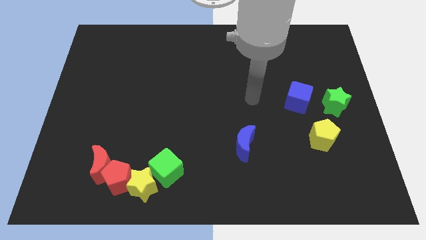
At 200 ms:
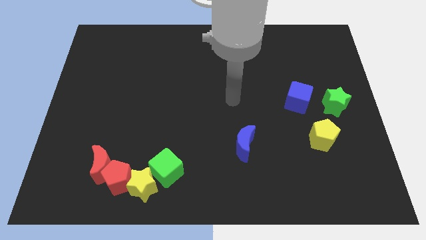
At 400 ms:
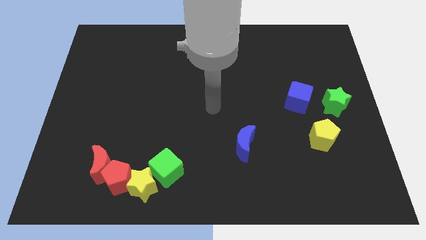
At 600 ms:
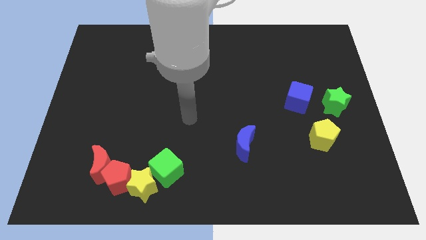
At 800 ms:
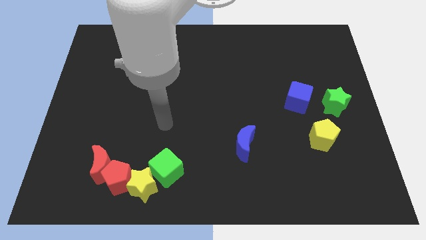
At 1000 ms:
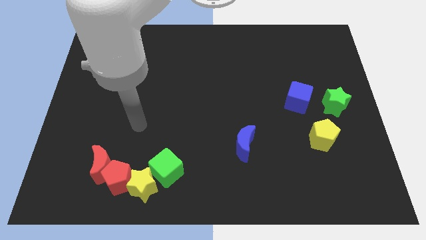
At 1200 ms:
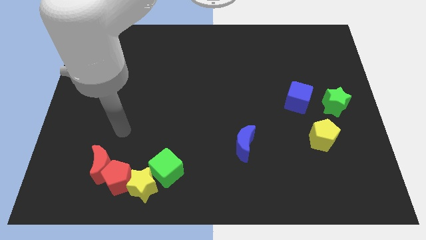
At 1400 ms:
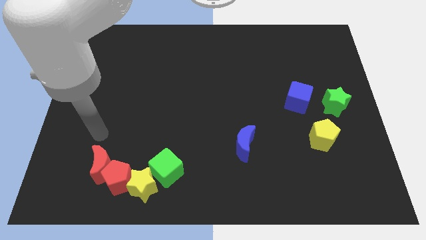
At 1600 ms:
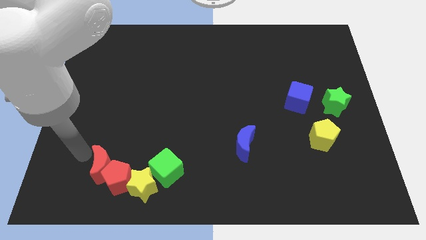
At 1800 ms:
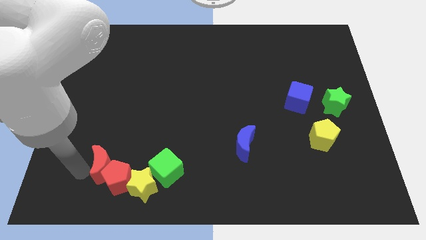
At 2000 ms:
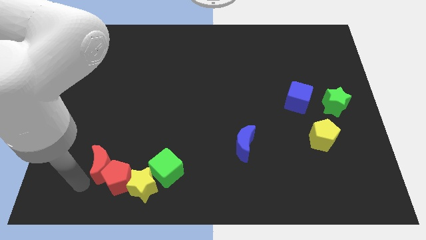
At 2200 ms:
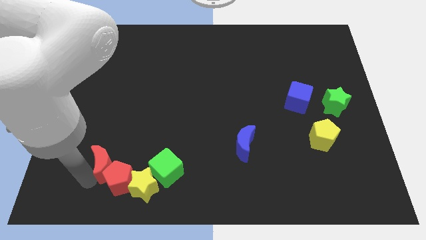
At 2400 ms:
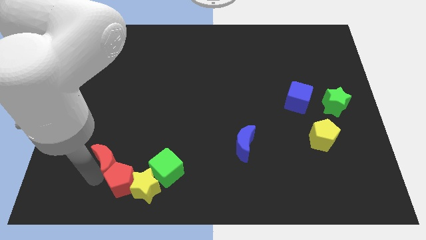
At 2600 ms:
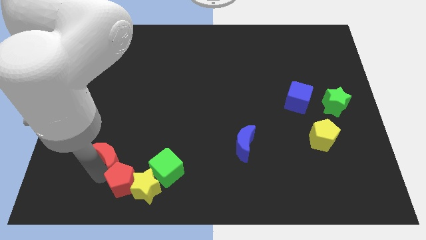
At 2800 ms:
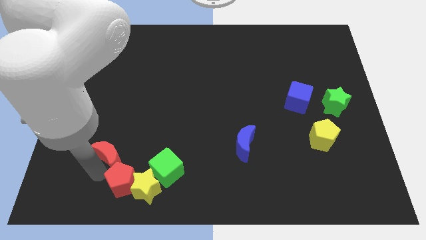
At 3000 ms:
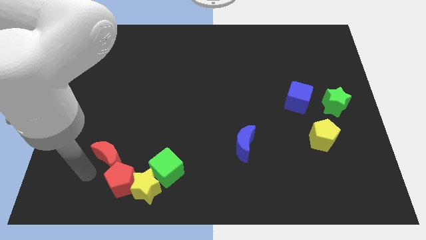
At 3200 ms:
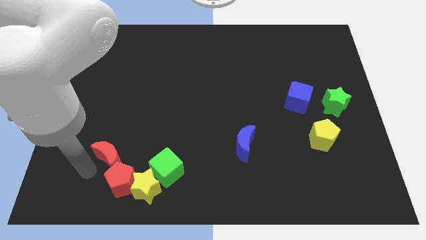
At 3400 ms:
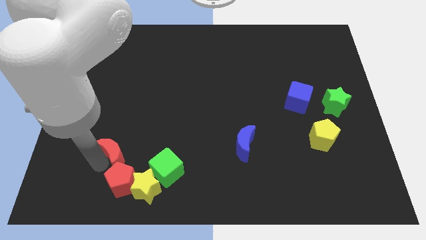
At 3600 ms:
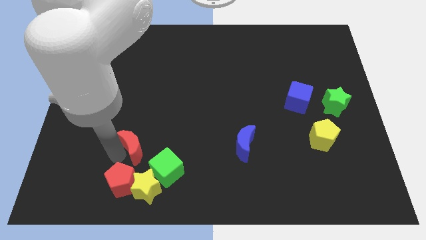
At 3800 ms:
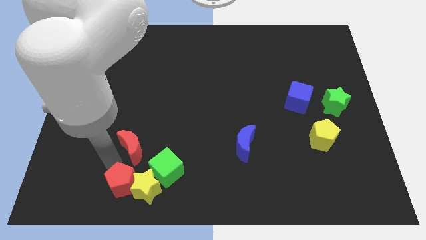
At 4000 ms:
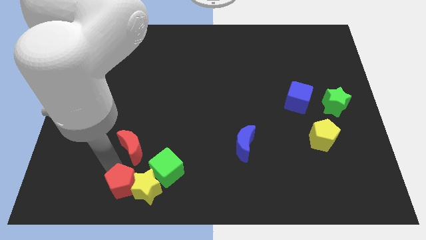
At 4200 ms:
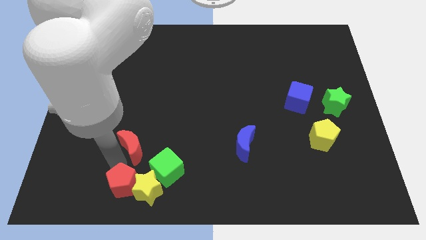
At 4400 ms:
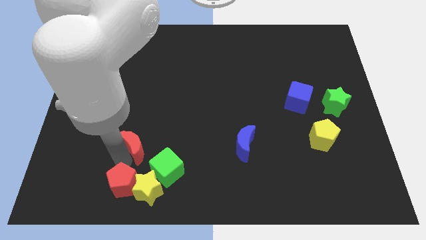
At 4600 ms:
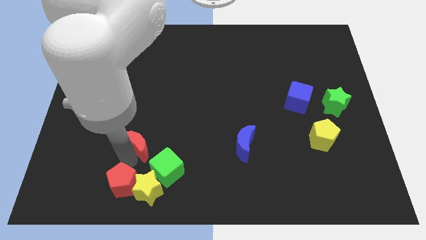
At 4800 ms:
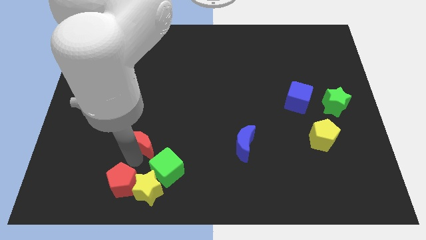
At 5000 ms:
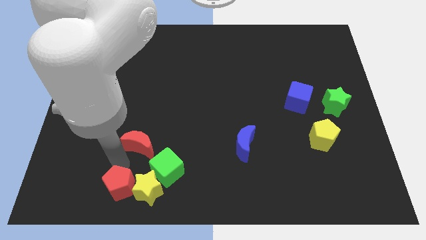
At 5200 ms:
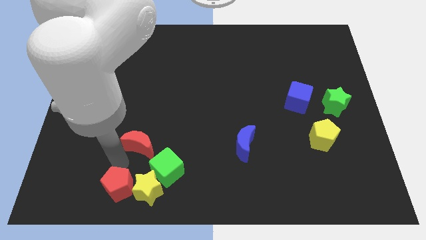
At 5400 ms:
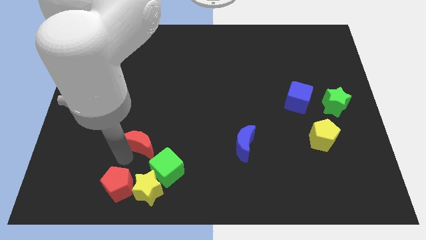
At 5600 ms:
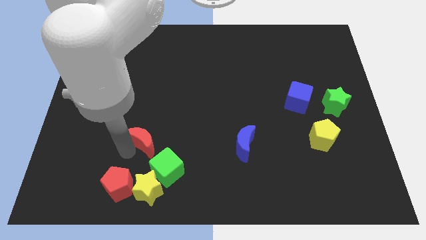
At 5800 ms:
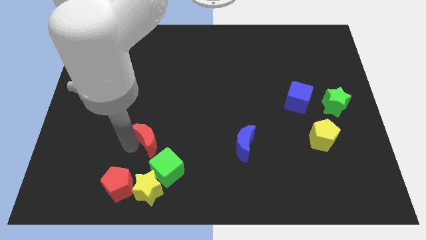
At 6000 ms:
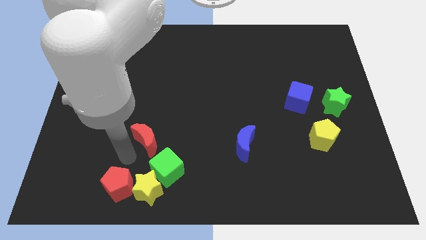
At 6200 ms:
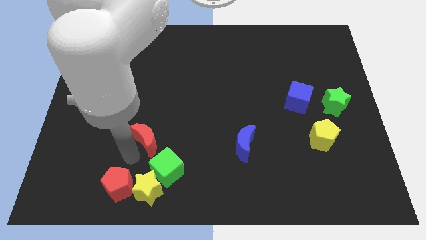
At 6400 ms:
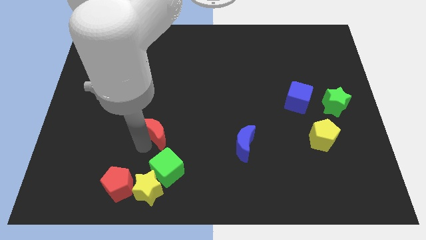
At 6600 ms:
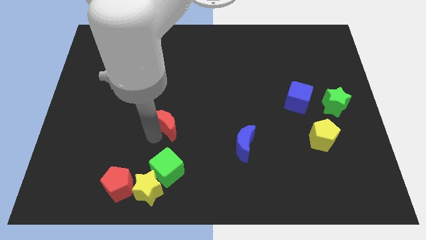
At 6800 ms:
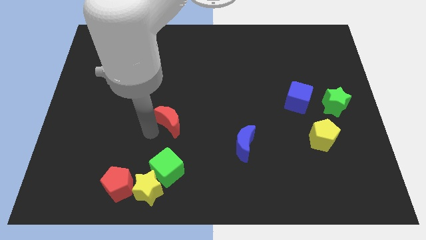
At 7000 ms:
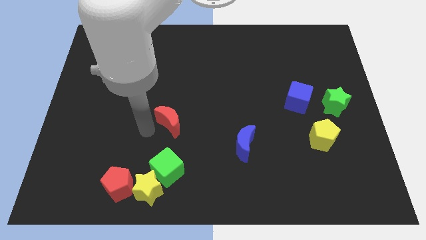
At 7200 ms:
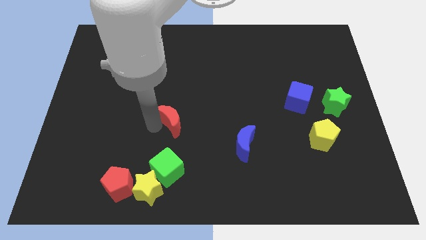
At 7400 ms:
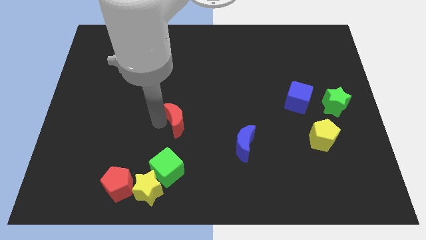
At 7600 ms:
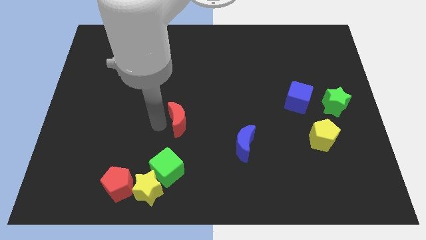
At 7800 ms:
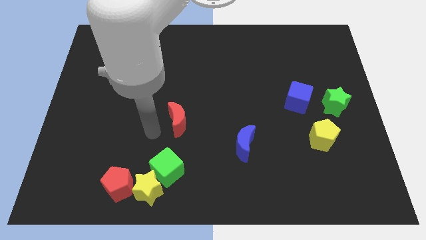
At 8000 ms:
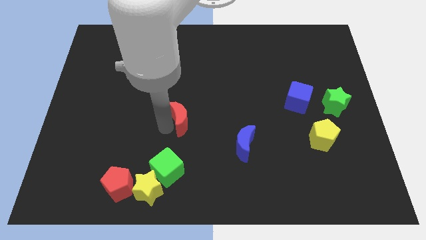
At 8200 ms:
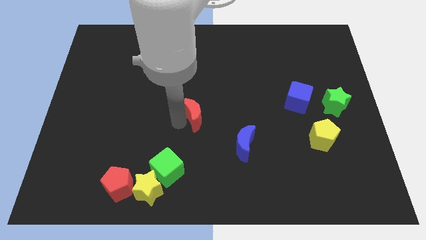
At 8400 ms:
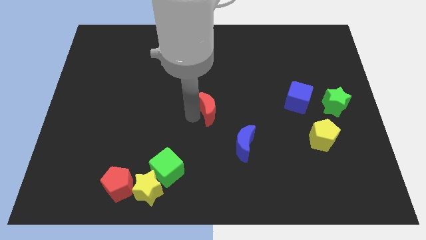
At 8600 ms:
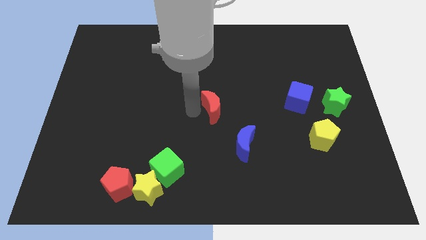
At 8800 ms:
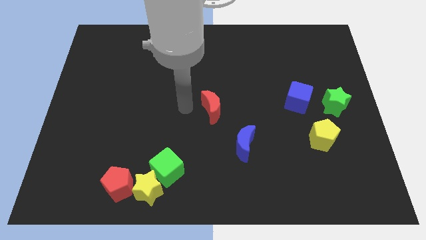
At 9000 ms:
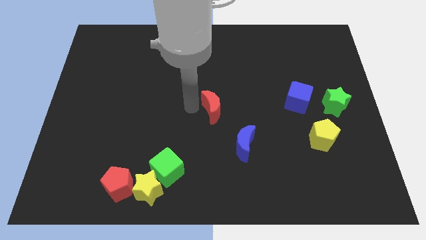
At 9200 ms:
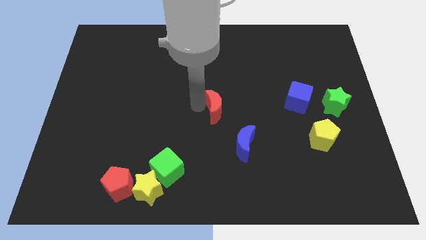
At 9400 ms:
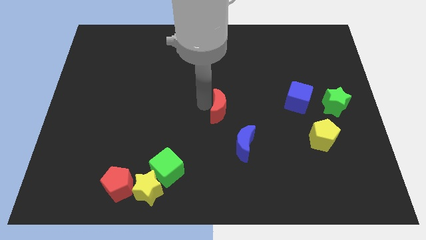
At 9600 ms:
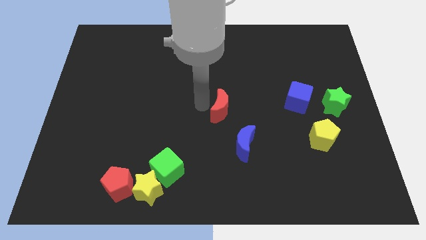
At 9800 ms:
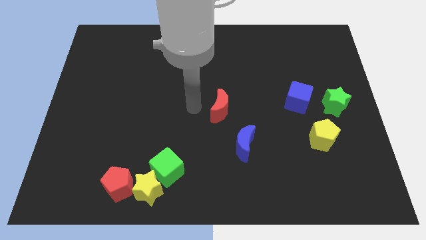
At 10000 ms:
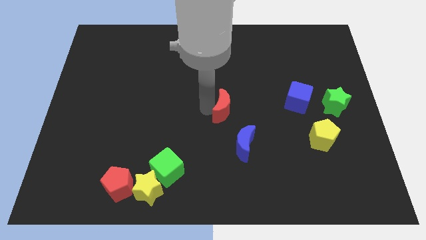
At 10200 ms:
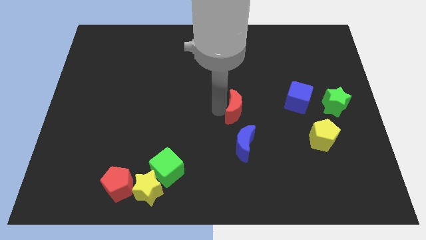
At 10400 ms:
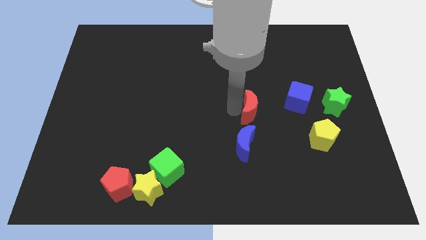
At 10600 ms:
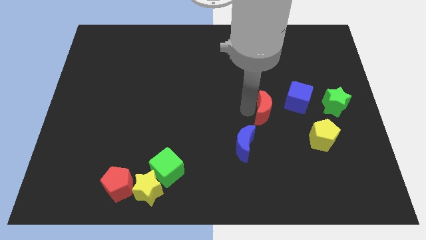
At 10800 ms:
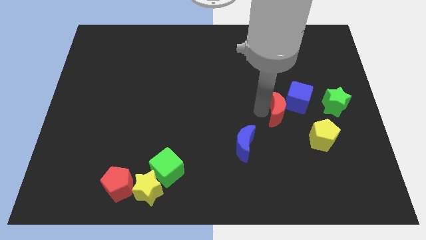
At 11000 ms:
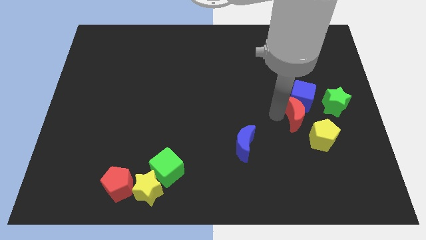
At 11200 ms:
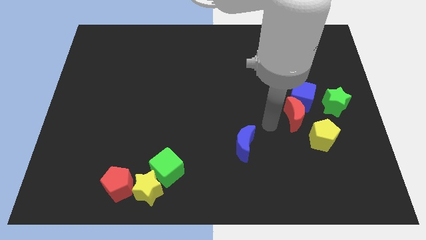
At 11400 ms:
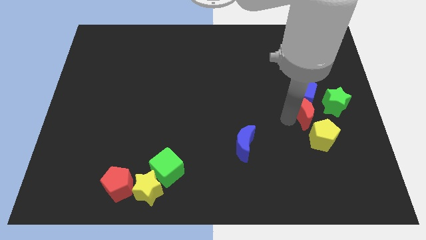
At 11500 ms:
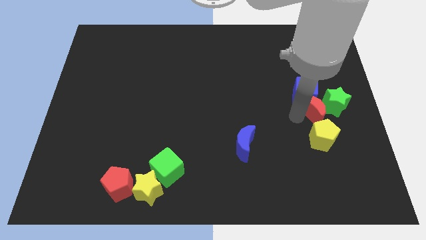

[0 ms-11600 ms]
slide the red moon towards the green star

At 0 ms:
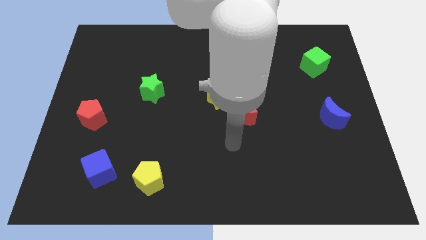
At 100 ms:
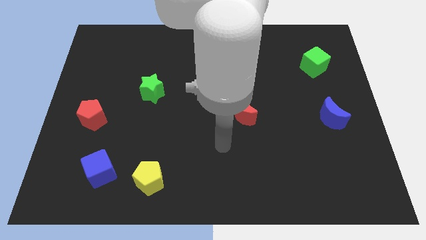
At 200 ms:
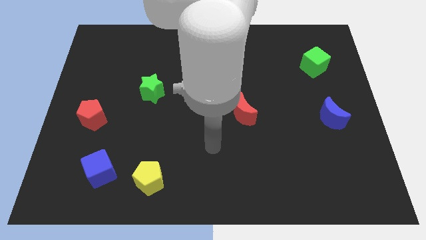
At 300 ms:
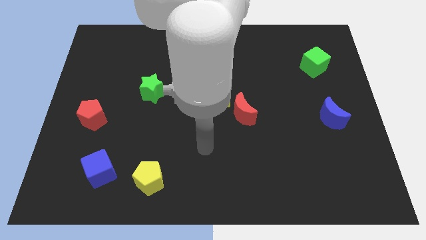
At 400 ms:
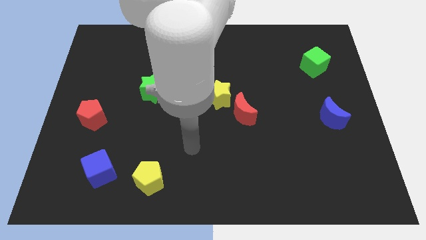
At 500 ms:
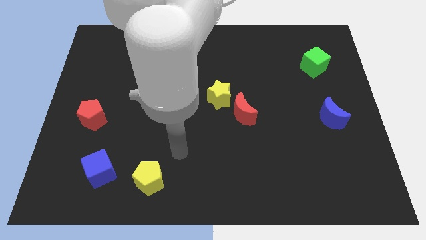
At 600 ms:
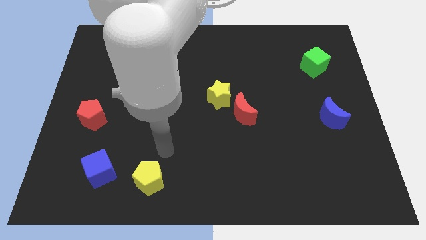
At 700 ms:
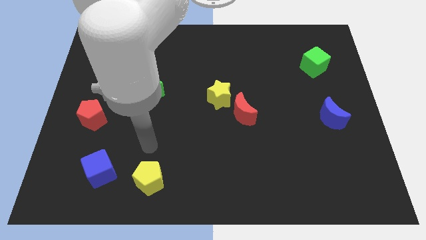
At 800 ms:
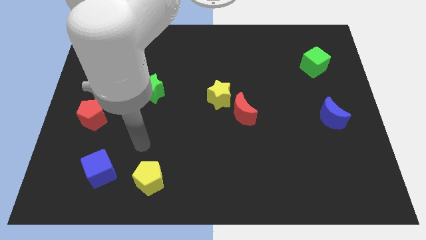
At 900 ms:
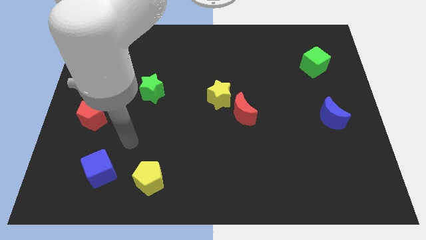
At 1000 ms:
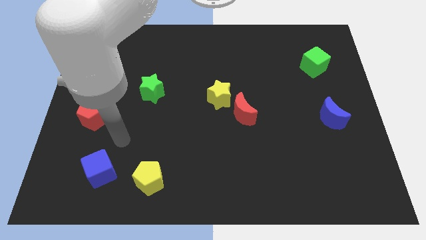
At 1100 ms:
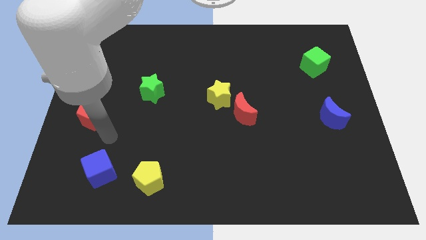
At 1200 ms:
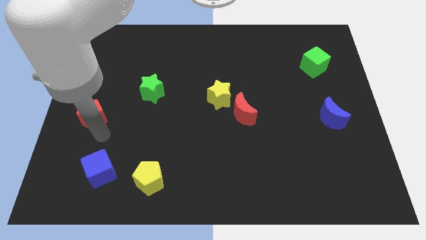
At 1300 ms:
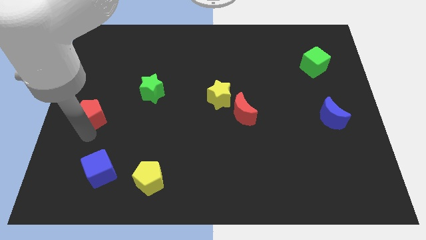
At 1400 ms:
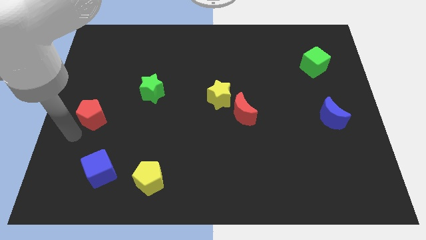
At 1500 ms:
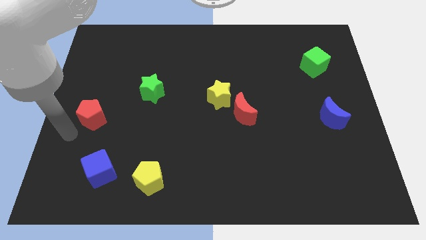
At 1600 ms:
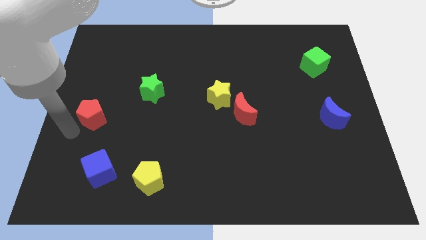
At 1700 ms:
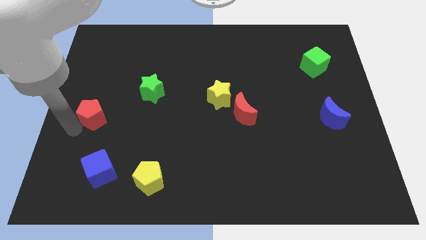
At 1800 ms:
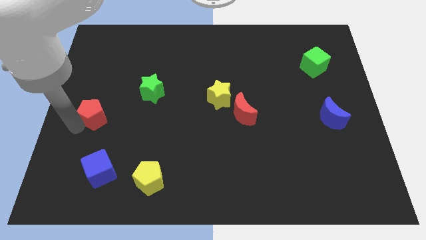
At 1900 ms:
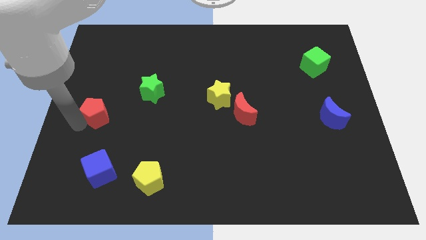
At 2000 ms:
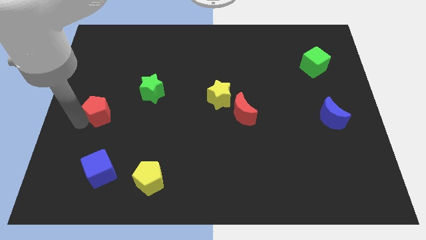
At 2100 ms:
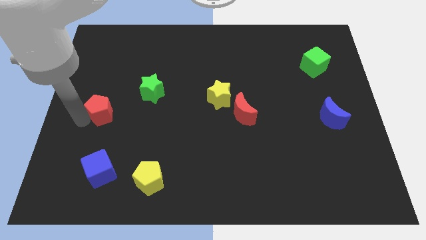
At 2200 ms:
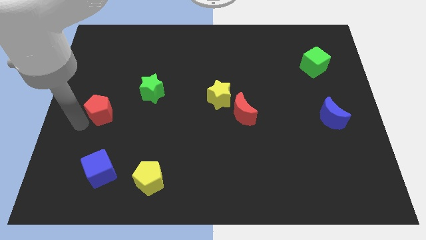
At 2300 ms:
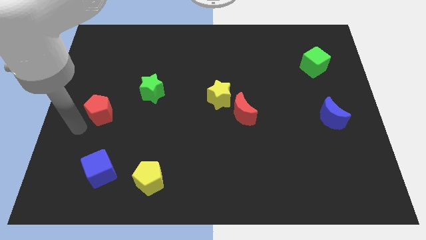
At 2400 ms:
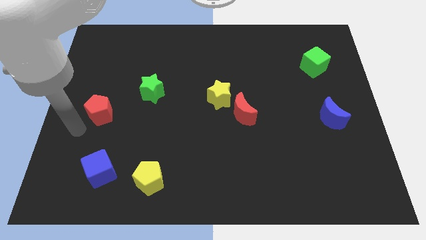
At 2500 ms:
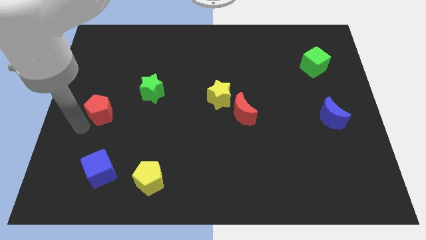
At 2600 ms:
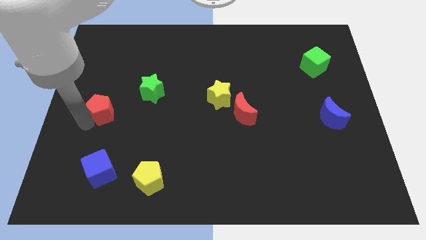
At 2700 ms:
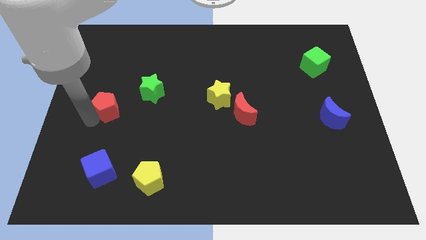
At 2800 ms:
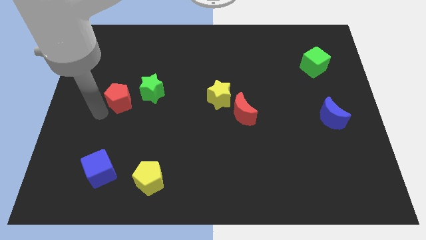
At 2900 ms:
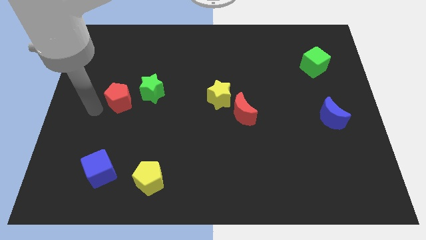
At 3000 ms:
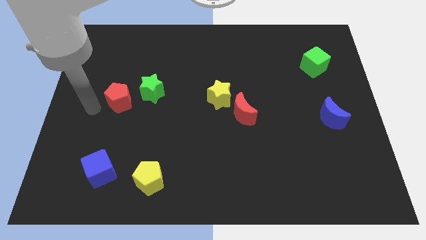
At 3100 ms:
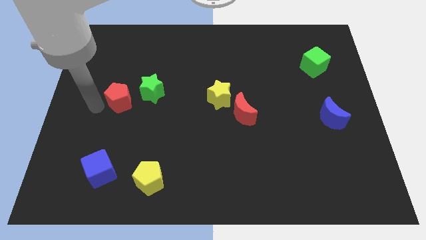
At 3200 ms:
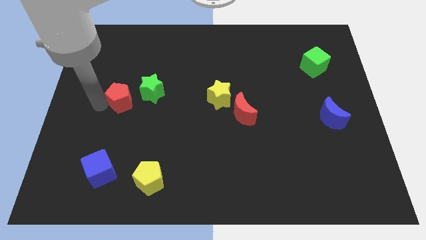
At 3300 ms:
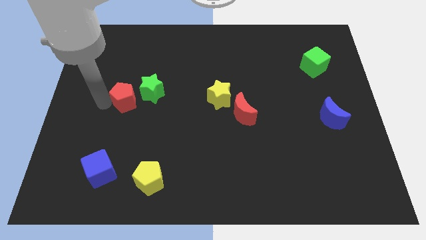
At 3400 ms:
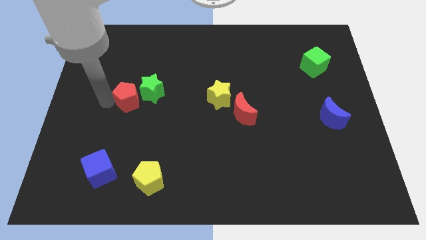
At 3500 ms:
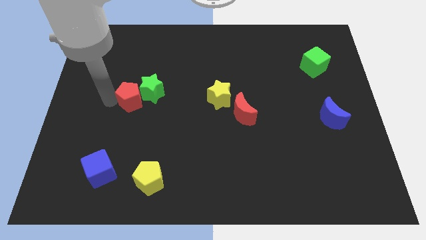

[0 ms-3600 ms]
put the red pentagon next to the green star
